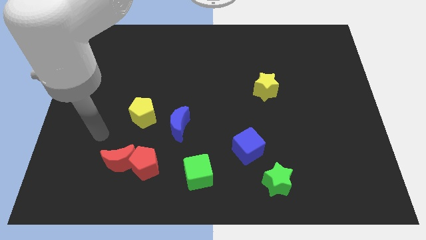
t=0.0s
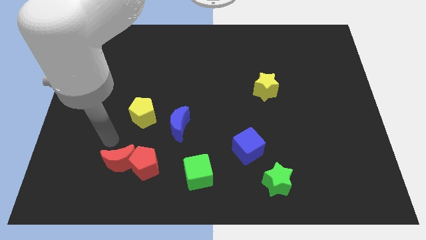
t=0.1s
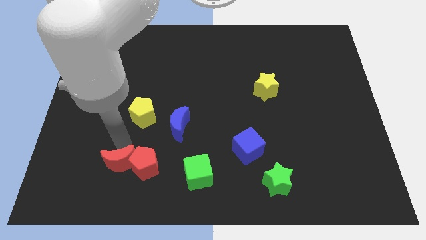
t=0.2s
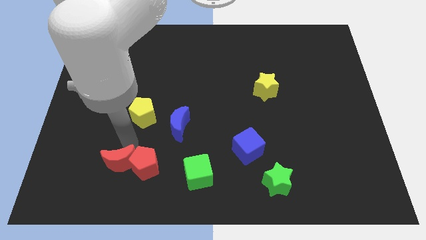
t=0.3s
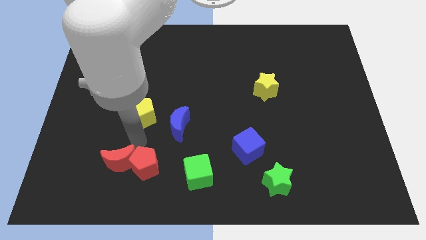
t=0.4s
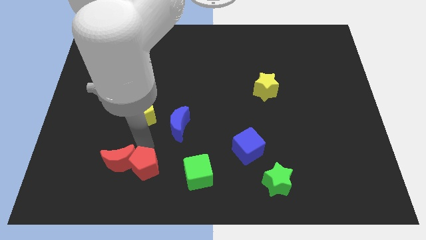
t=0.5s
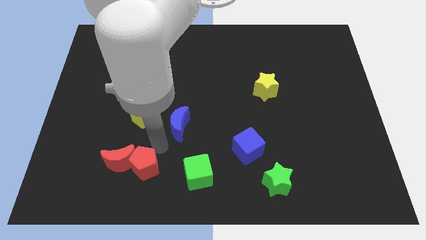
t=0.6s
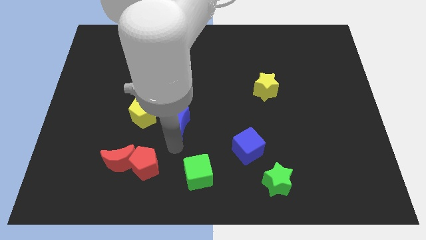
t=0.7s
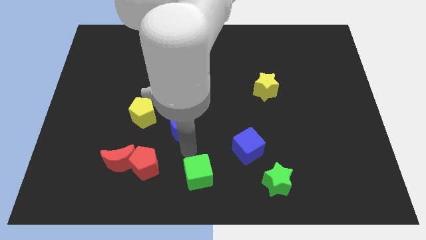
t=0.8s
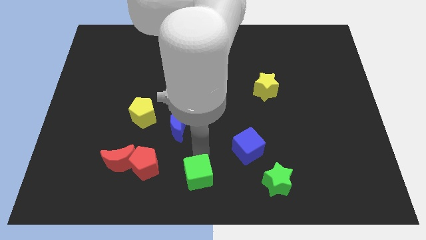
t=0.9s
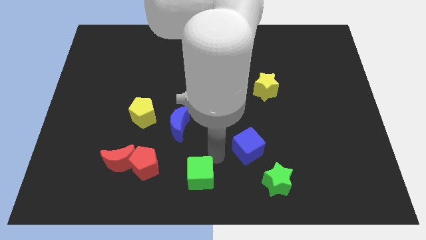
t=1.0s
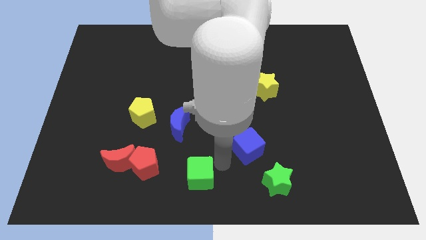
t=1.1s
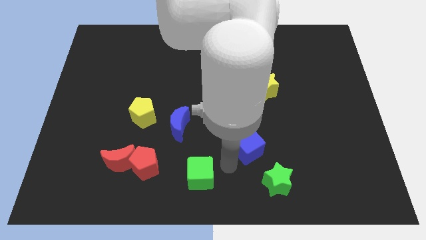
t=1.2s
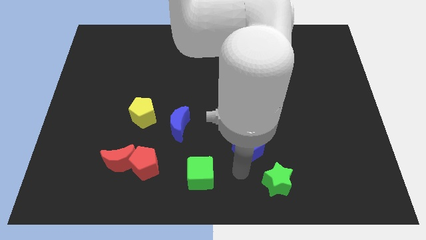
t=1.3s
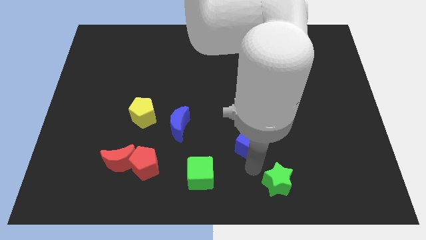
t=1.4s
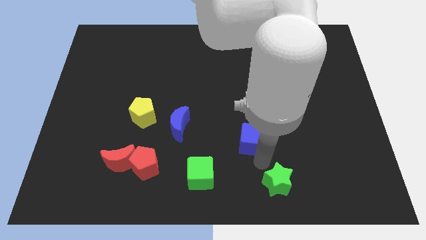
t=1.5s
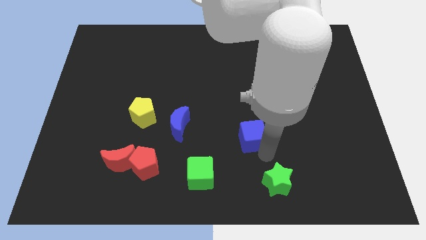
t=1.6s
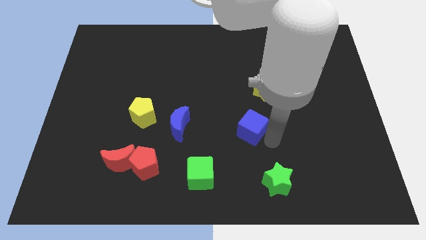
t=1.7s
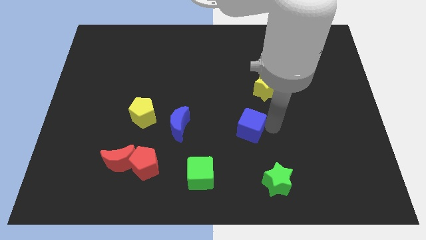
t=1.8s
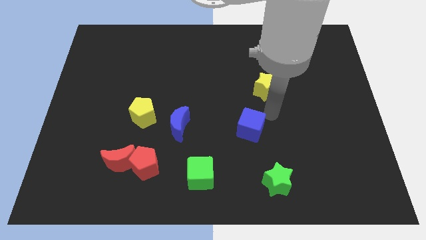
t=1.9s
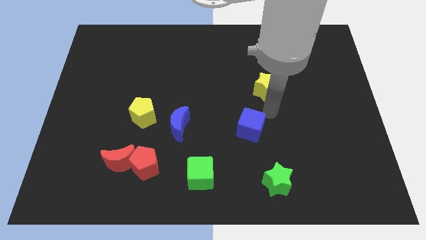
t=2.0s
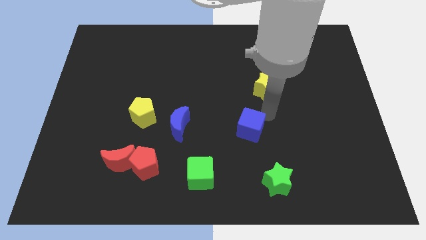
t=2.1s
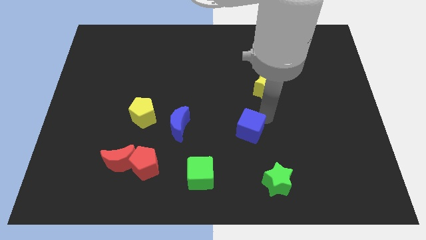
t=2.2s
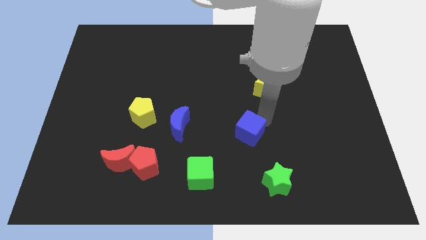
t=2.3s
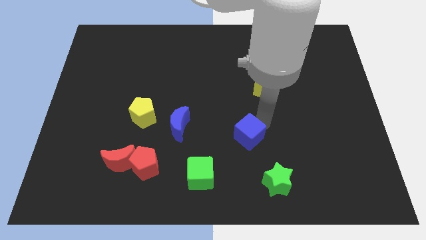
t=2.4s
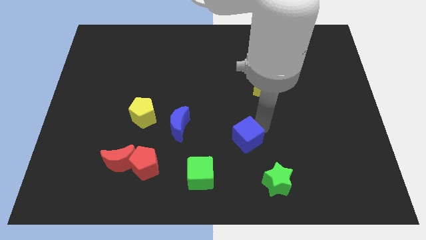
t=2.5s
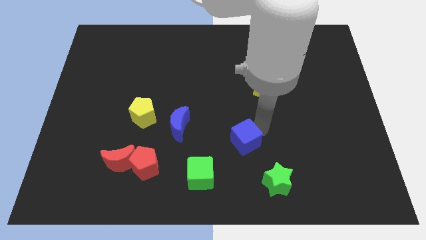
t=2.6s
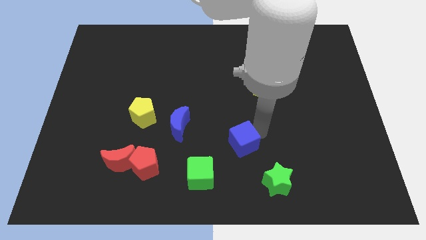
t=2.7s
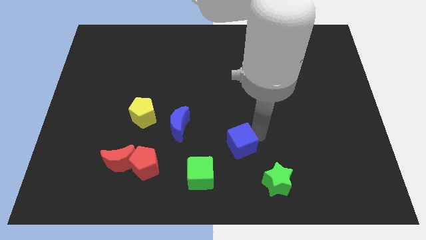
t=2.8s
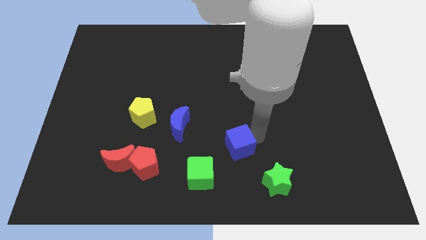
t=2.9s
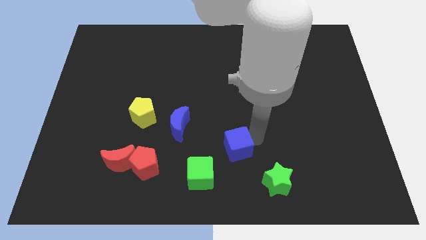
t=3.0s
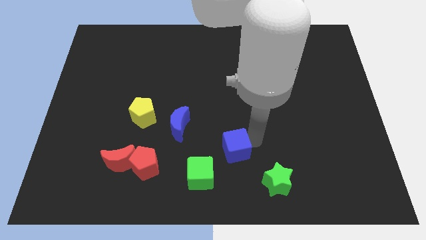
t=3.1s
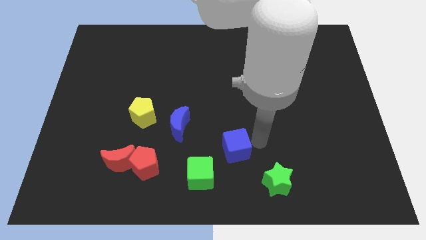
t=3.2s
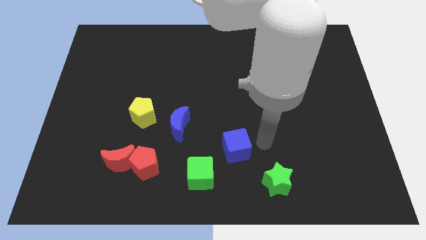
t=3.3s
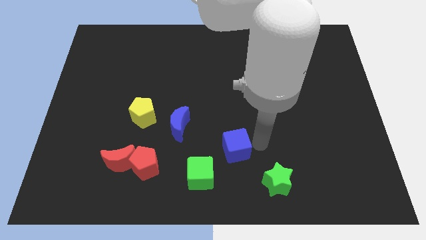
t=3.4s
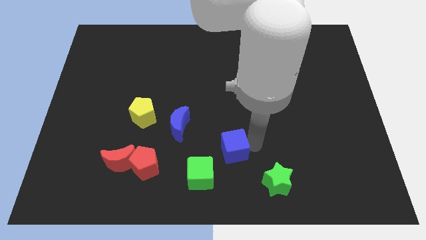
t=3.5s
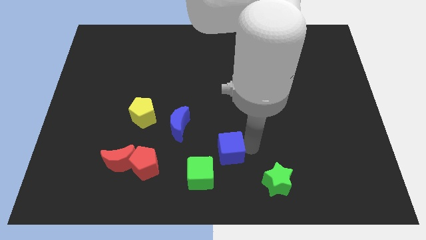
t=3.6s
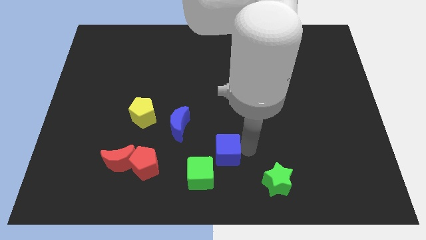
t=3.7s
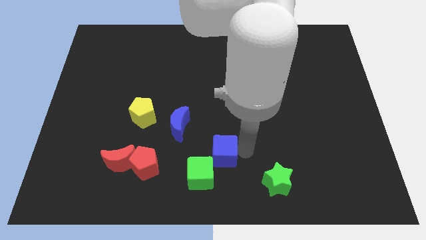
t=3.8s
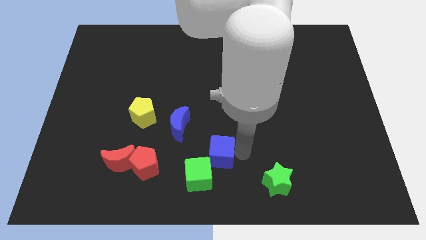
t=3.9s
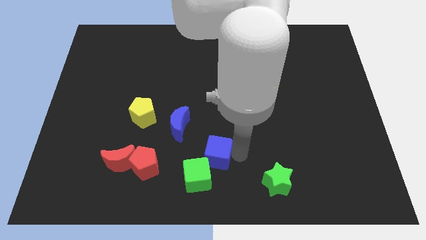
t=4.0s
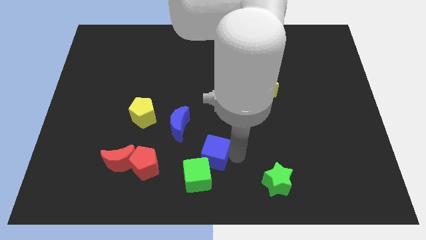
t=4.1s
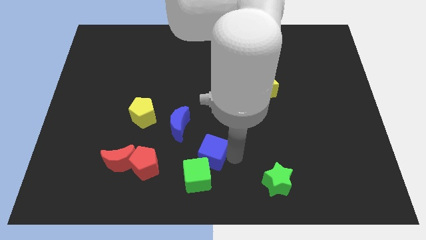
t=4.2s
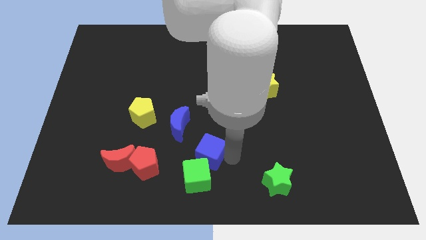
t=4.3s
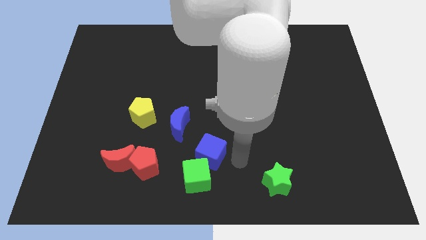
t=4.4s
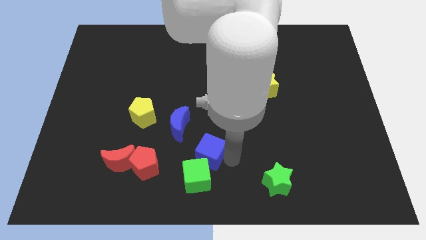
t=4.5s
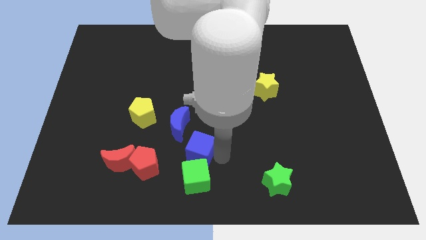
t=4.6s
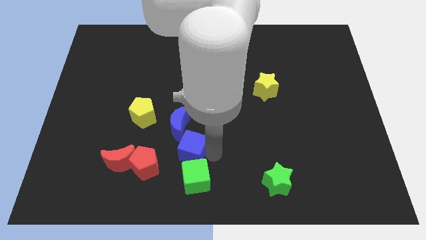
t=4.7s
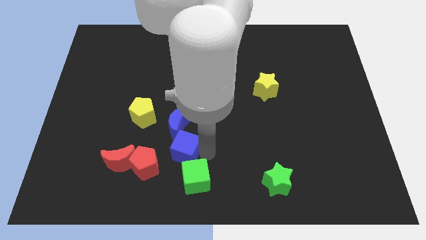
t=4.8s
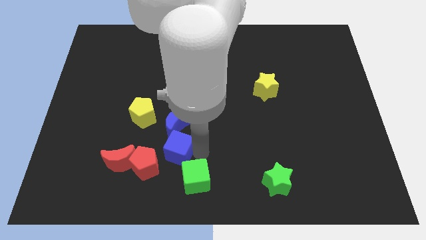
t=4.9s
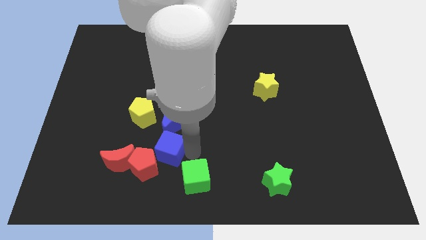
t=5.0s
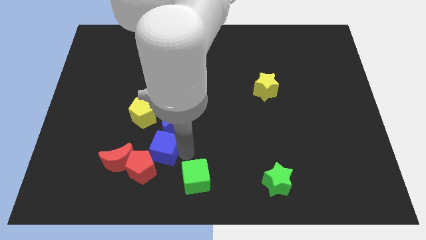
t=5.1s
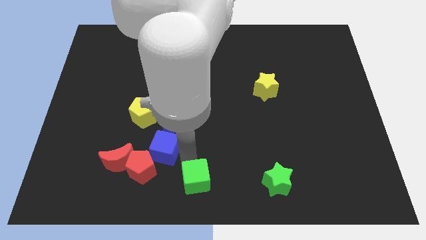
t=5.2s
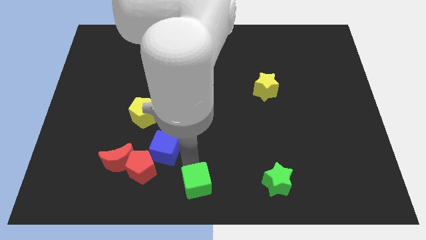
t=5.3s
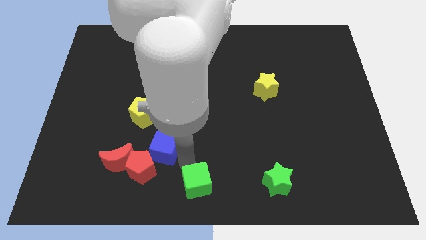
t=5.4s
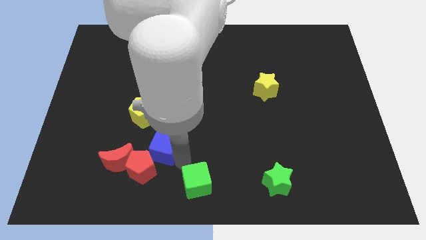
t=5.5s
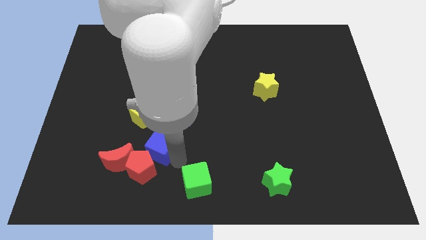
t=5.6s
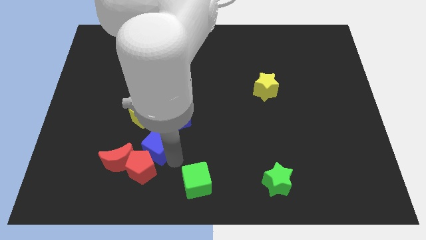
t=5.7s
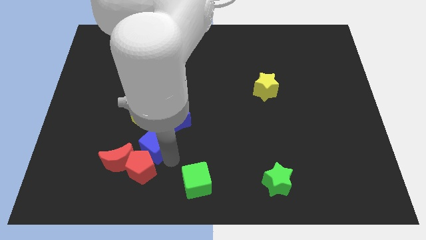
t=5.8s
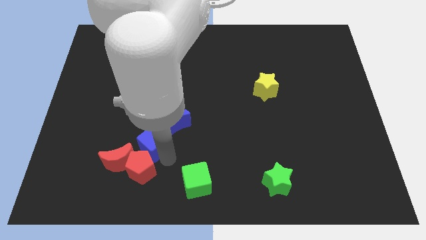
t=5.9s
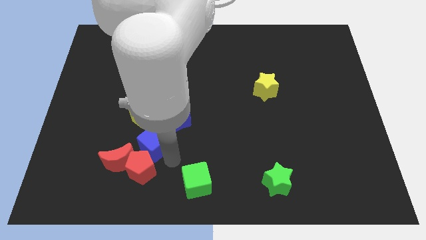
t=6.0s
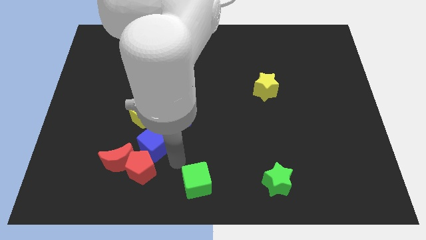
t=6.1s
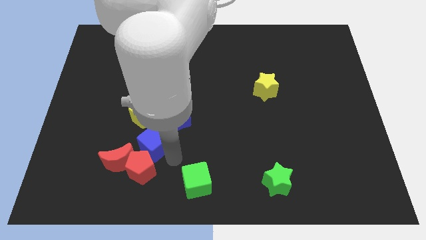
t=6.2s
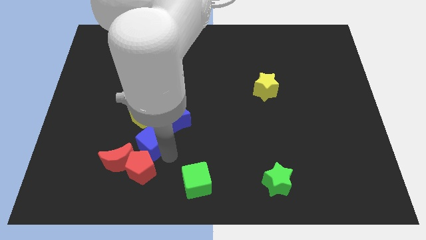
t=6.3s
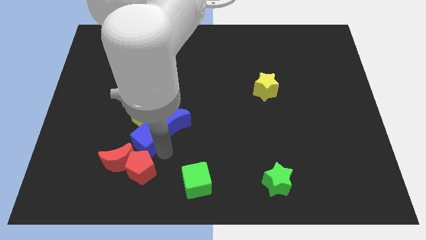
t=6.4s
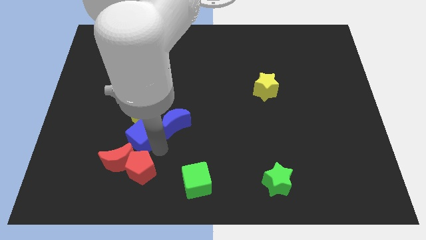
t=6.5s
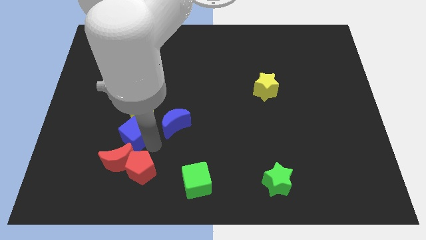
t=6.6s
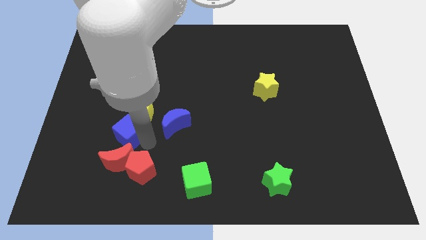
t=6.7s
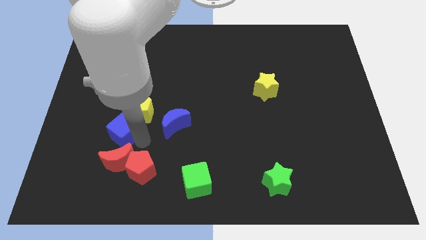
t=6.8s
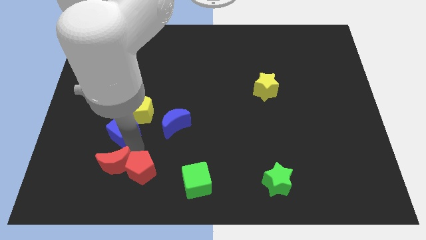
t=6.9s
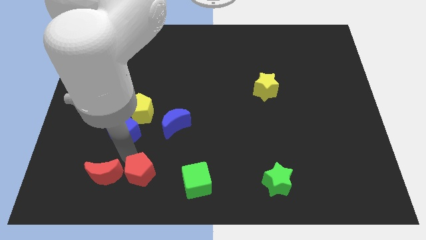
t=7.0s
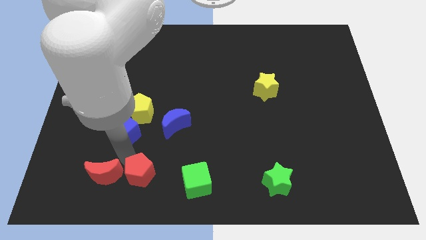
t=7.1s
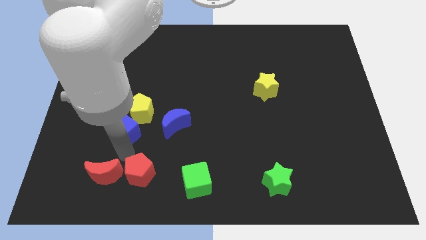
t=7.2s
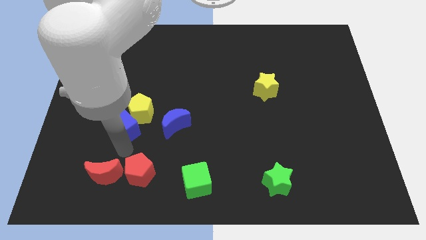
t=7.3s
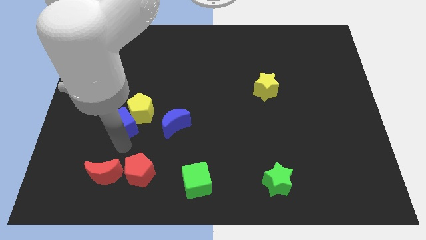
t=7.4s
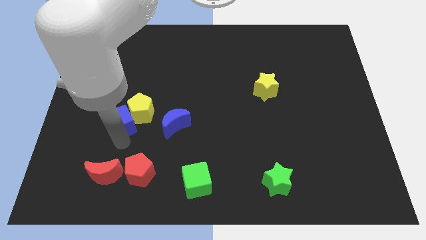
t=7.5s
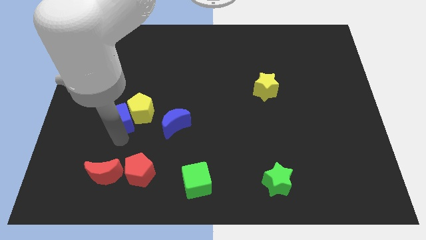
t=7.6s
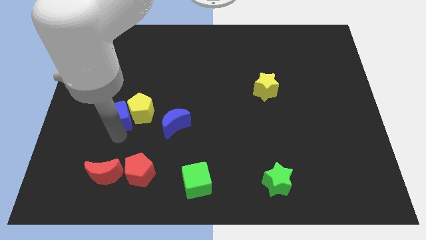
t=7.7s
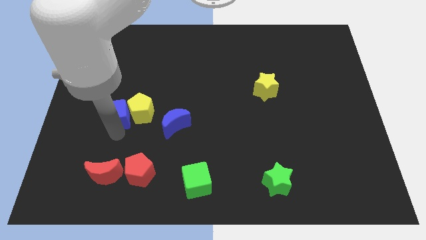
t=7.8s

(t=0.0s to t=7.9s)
push the blue cube to the top left side of the yellow pentagon
